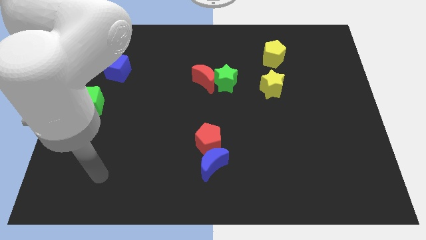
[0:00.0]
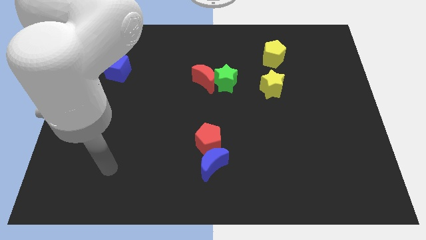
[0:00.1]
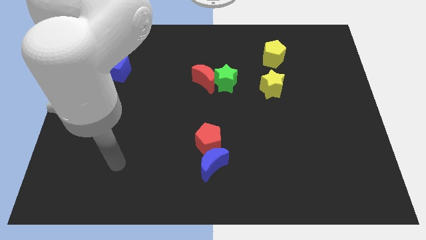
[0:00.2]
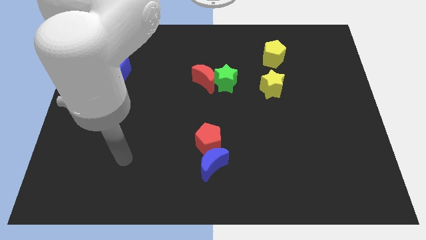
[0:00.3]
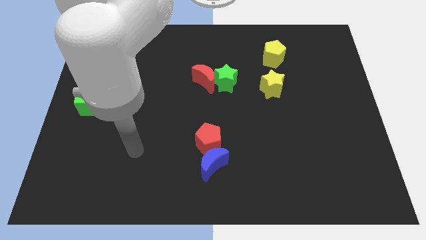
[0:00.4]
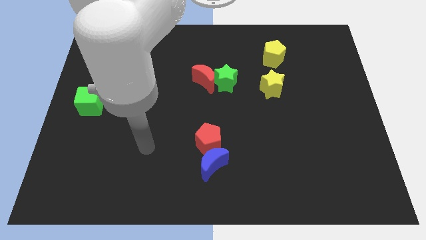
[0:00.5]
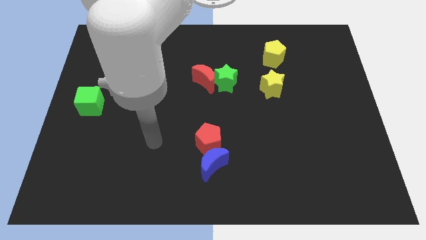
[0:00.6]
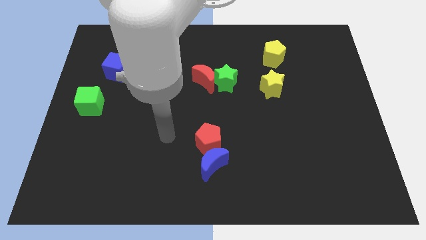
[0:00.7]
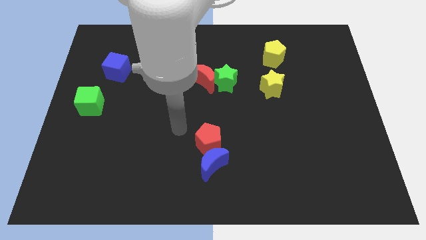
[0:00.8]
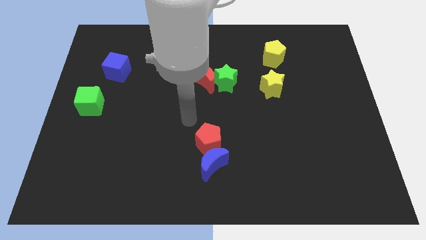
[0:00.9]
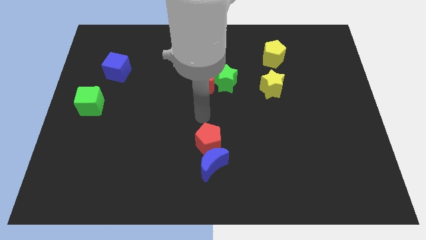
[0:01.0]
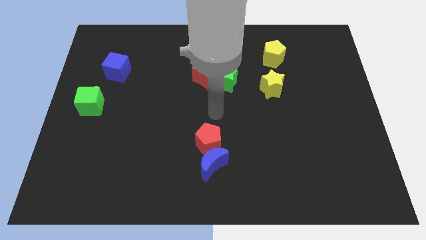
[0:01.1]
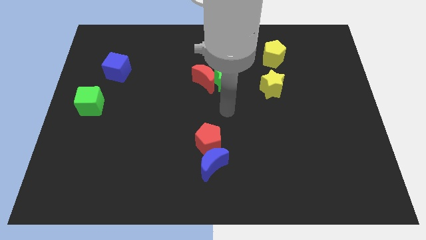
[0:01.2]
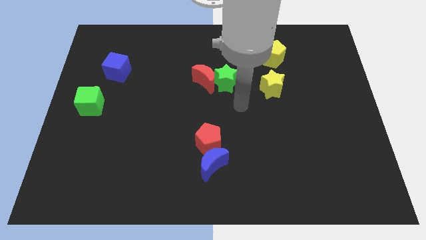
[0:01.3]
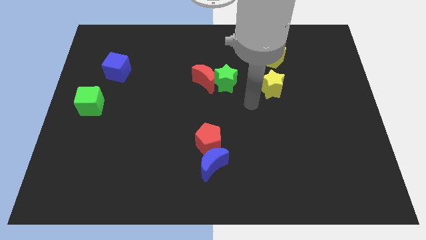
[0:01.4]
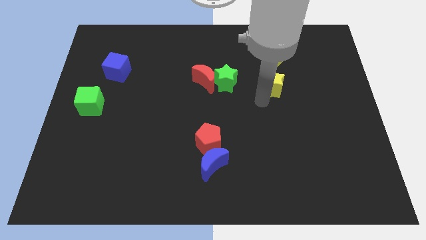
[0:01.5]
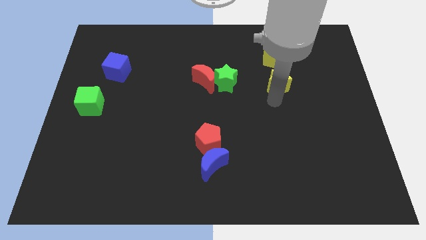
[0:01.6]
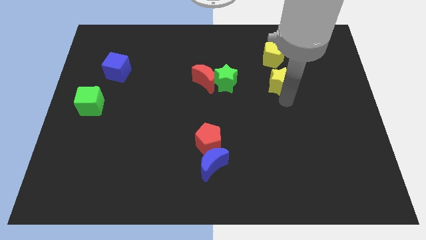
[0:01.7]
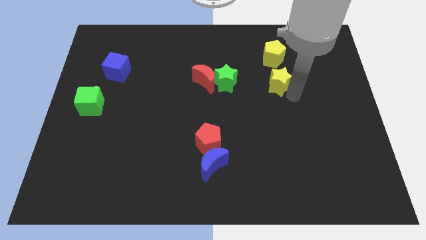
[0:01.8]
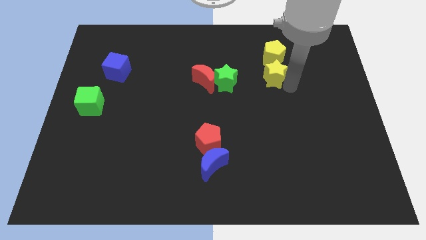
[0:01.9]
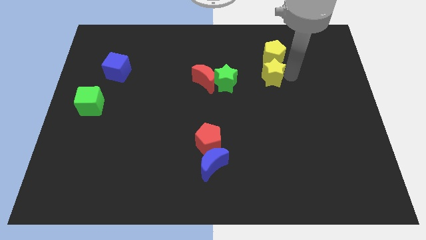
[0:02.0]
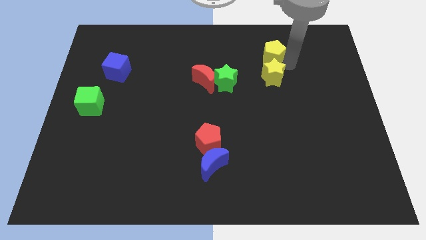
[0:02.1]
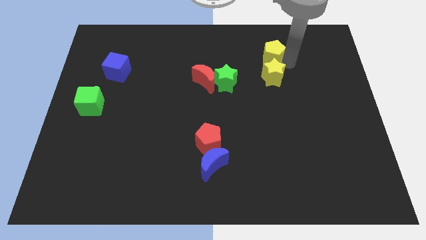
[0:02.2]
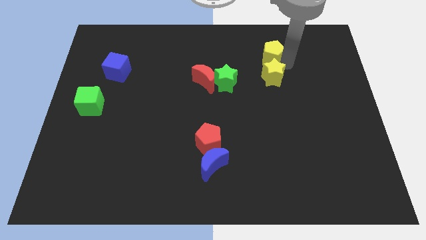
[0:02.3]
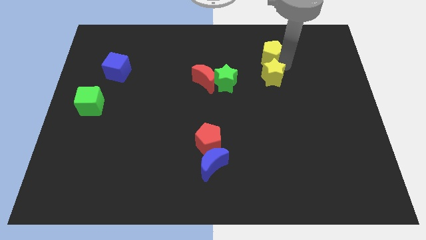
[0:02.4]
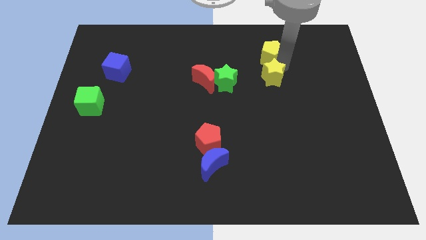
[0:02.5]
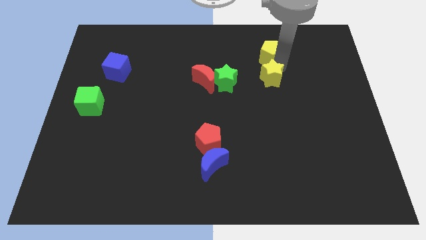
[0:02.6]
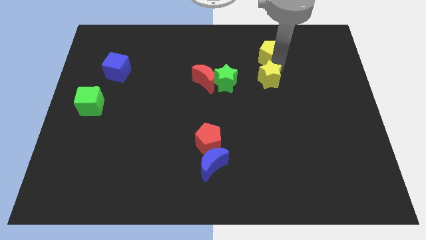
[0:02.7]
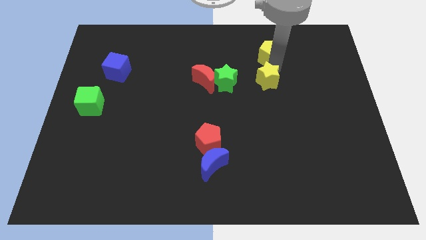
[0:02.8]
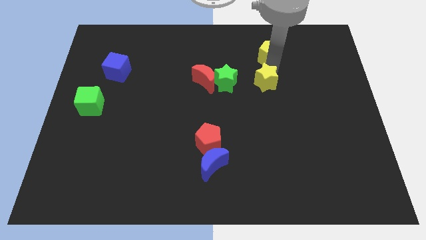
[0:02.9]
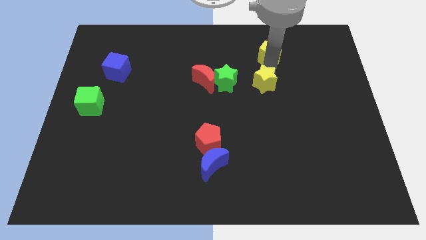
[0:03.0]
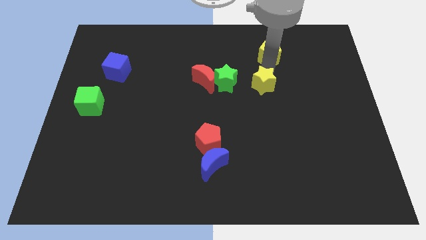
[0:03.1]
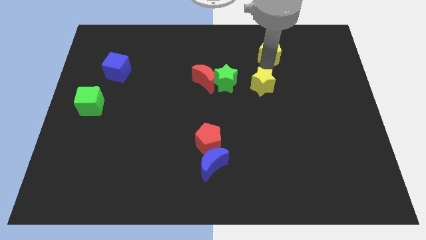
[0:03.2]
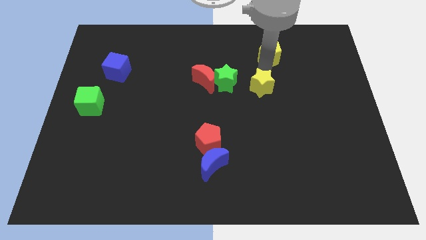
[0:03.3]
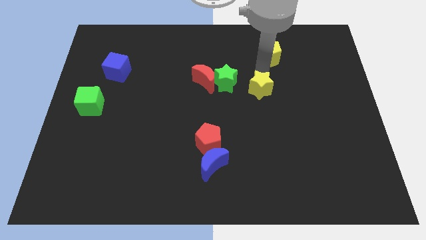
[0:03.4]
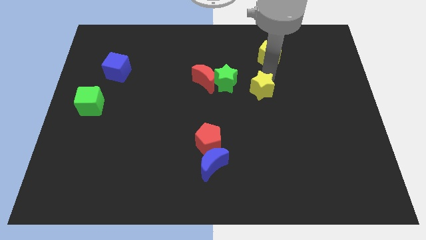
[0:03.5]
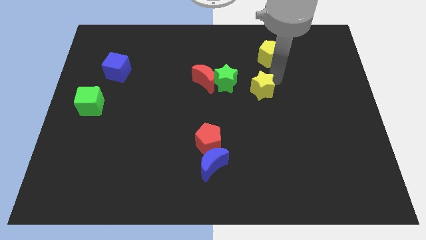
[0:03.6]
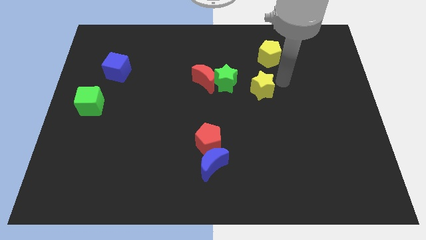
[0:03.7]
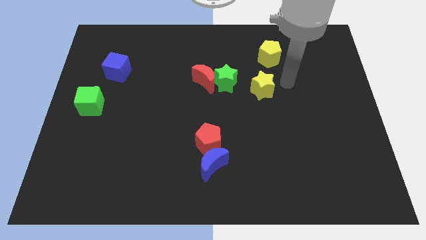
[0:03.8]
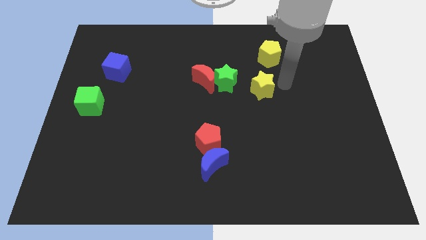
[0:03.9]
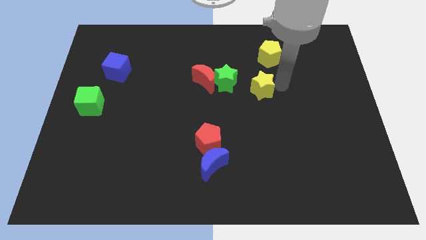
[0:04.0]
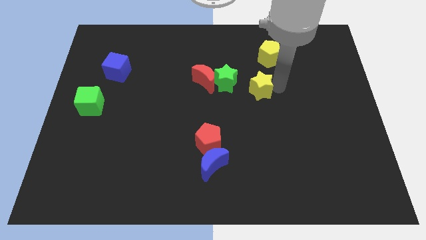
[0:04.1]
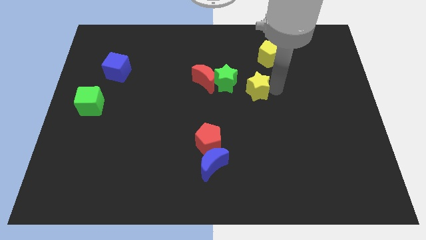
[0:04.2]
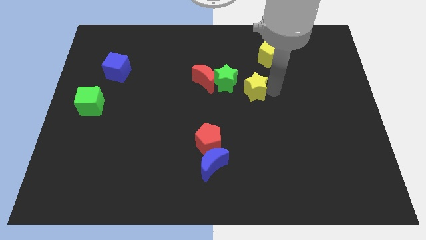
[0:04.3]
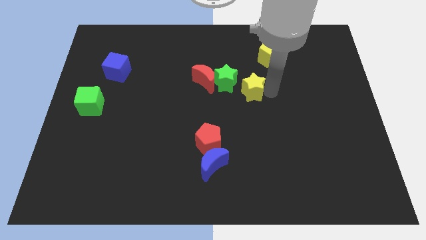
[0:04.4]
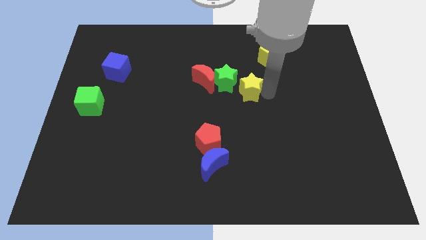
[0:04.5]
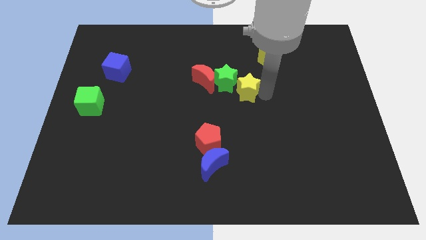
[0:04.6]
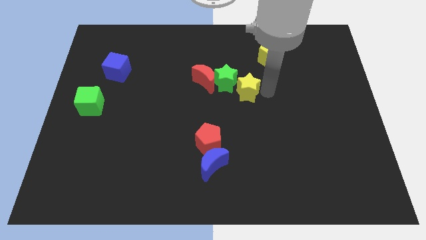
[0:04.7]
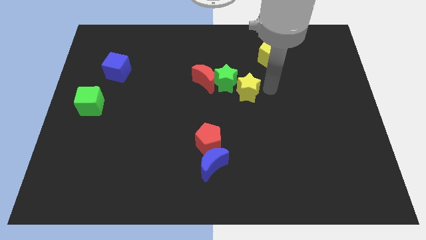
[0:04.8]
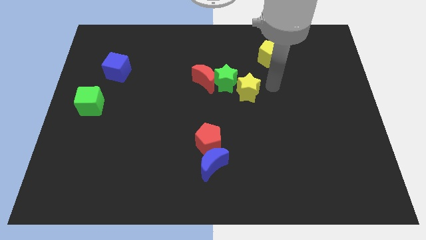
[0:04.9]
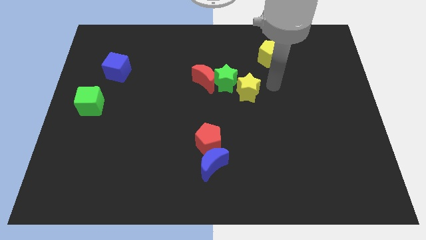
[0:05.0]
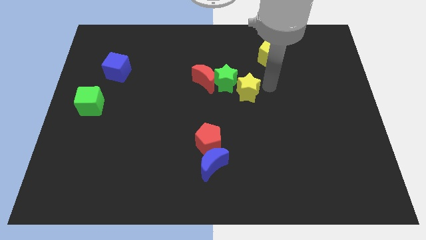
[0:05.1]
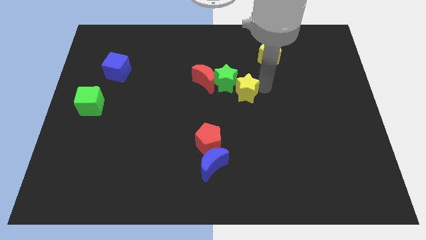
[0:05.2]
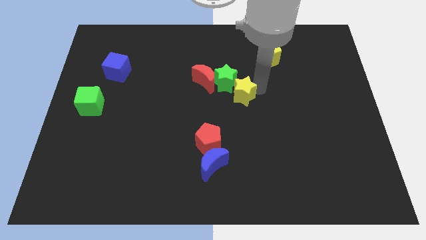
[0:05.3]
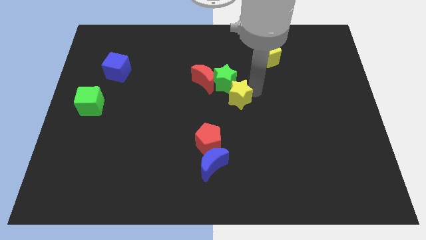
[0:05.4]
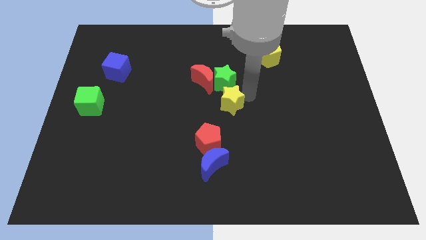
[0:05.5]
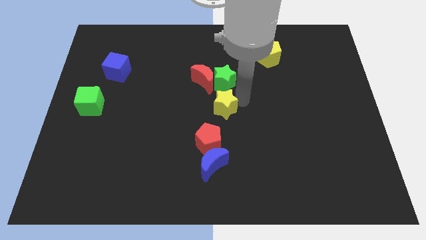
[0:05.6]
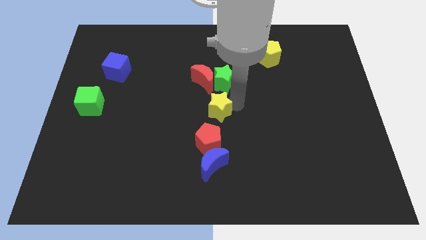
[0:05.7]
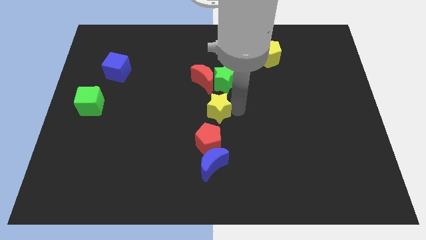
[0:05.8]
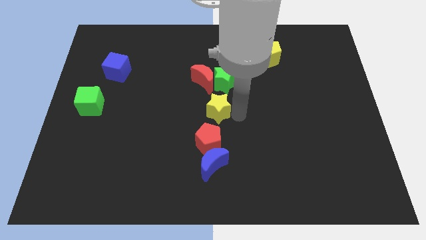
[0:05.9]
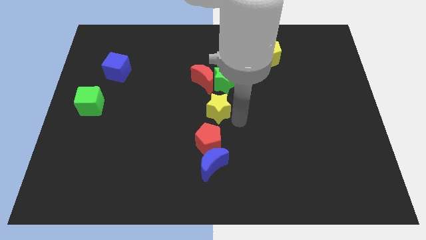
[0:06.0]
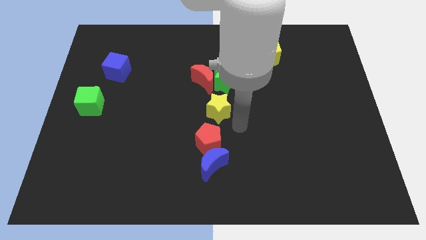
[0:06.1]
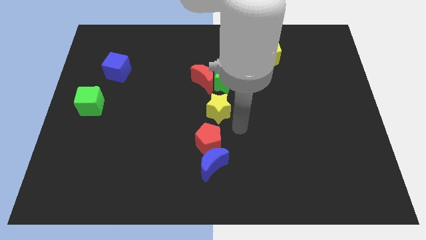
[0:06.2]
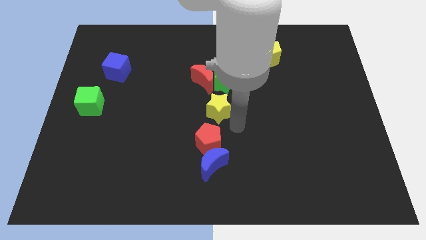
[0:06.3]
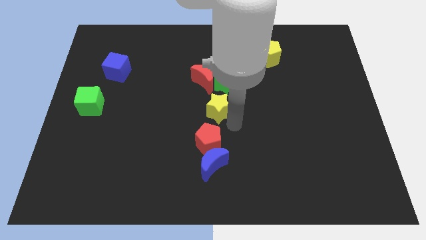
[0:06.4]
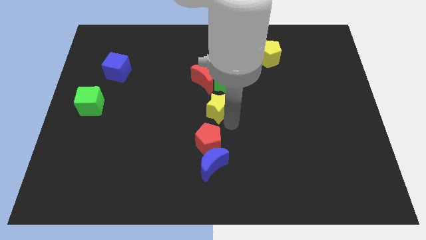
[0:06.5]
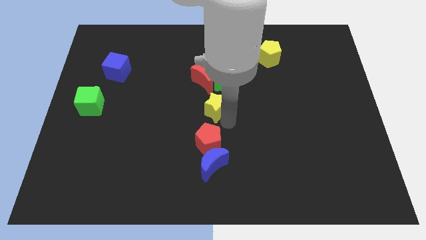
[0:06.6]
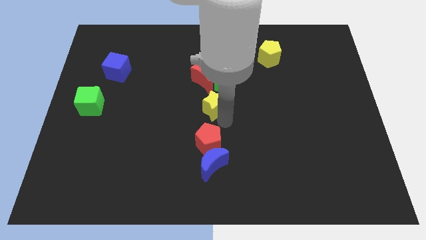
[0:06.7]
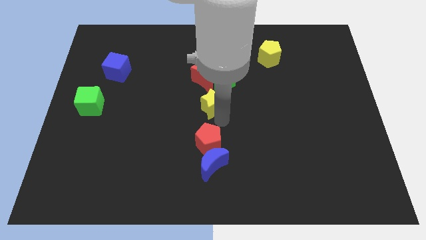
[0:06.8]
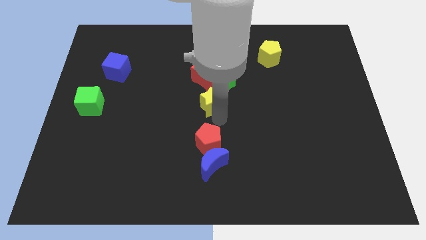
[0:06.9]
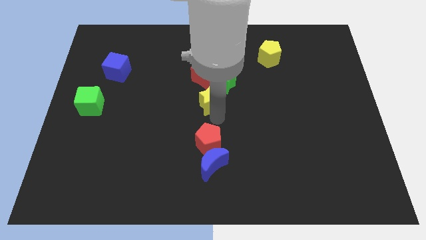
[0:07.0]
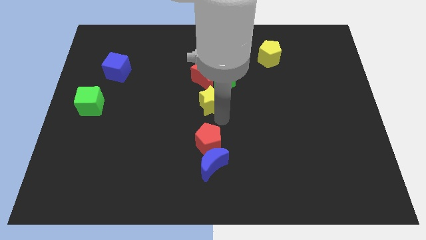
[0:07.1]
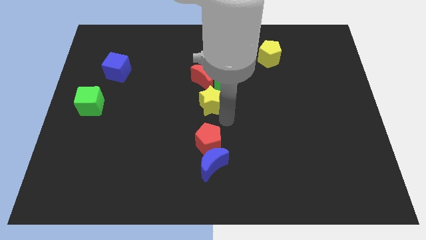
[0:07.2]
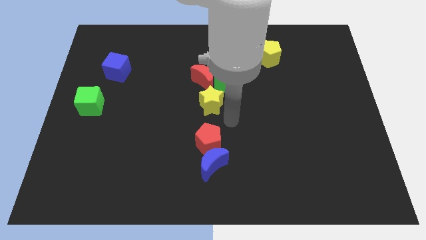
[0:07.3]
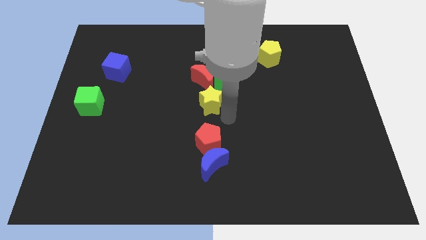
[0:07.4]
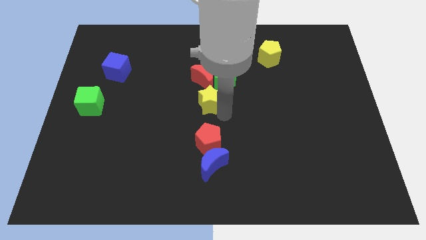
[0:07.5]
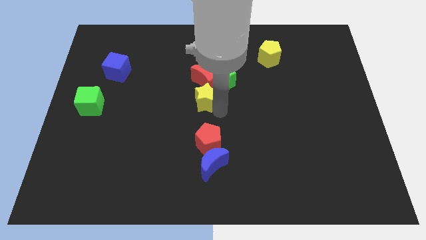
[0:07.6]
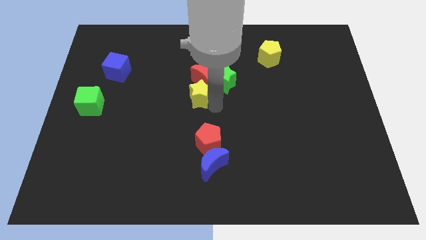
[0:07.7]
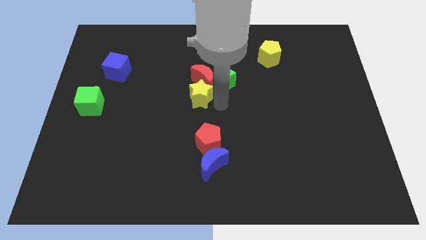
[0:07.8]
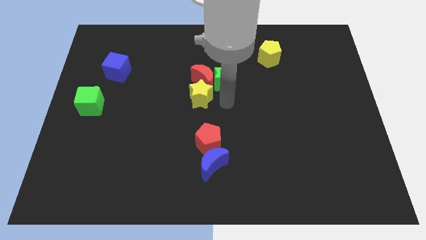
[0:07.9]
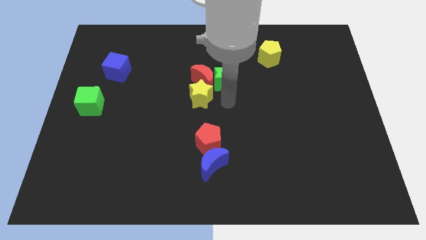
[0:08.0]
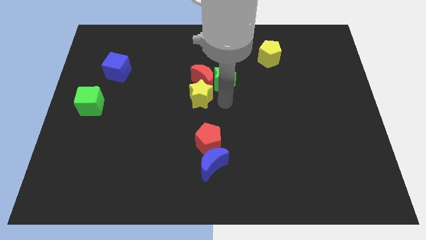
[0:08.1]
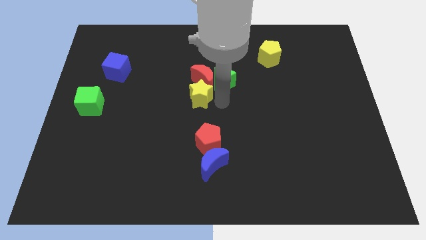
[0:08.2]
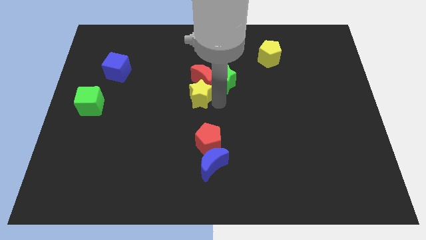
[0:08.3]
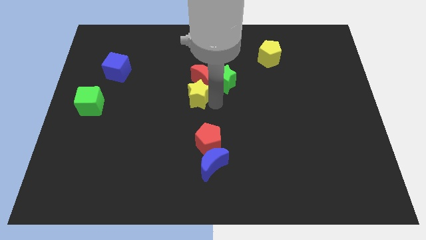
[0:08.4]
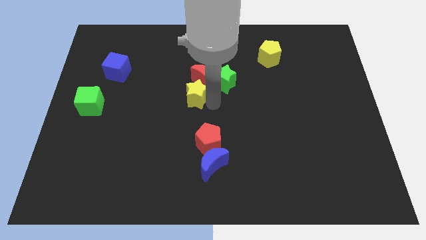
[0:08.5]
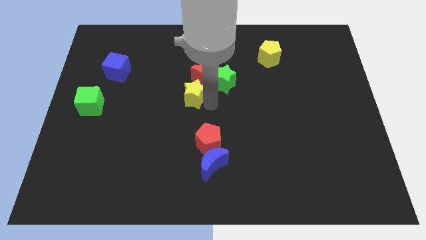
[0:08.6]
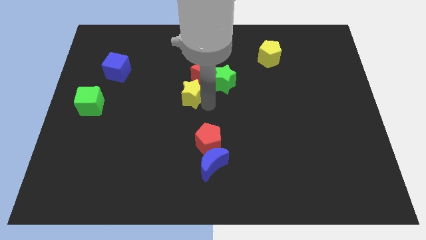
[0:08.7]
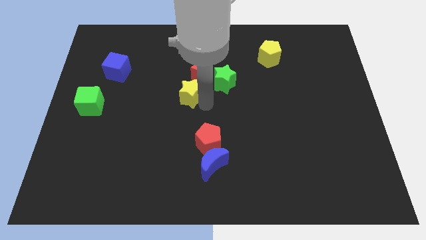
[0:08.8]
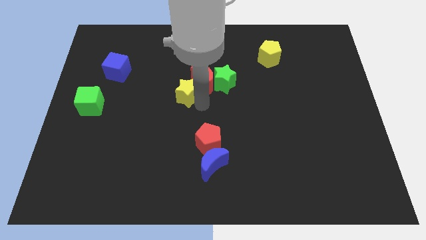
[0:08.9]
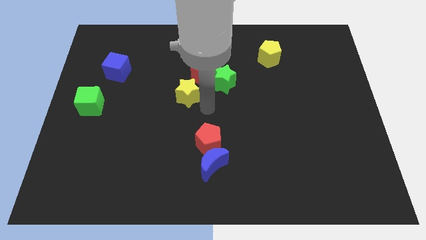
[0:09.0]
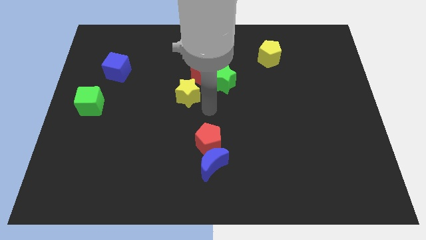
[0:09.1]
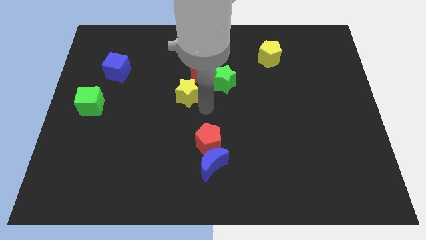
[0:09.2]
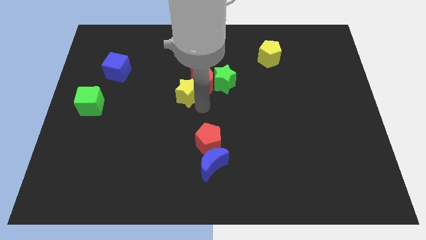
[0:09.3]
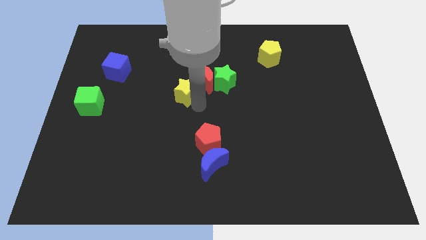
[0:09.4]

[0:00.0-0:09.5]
slide the yellow star to the left of the red moon
